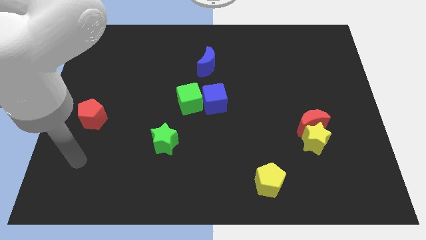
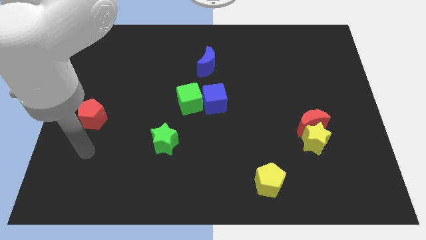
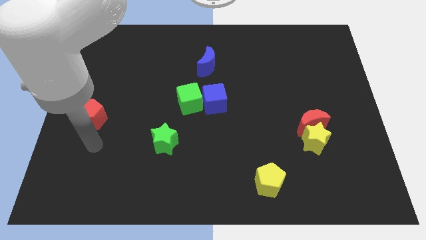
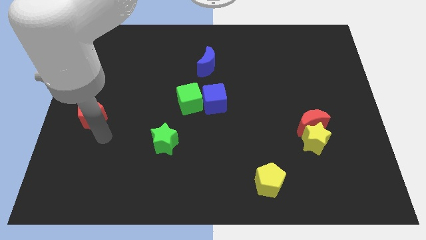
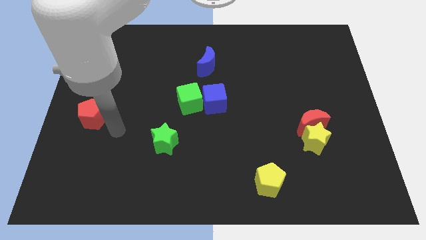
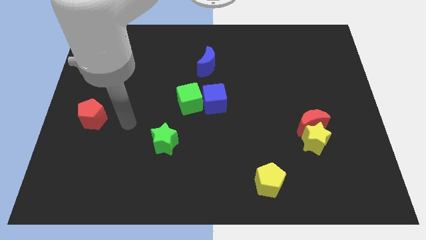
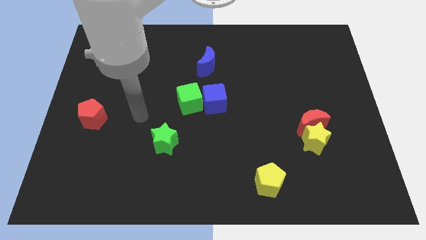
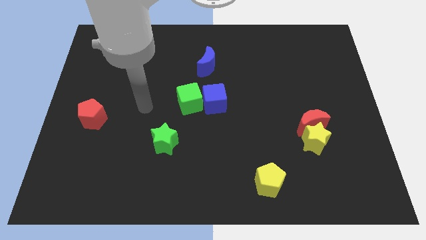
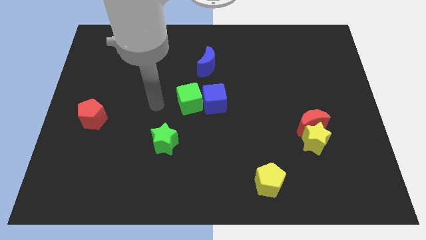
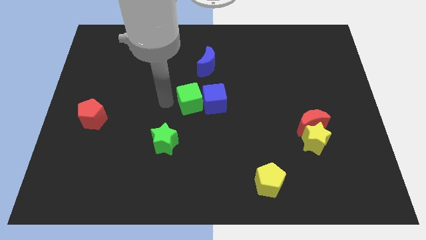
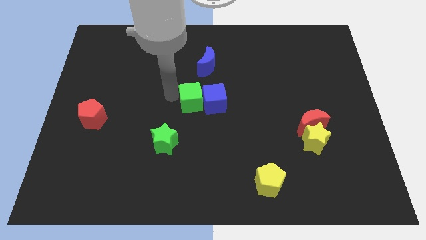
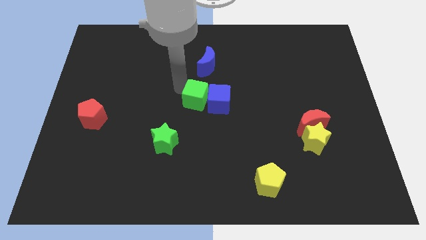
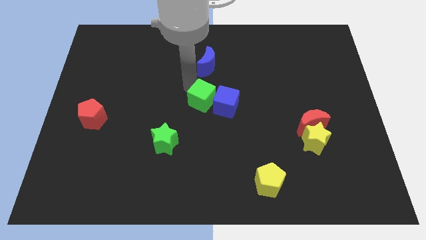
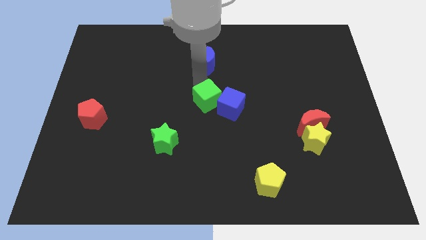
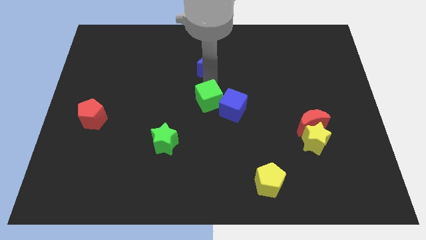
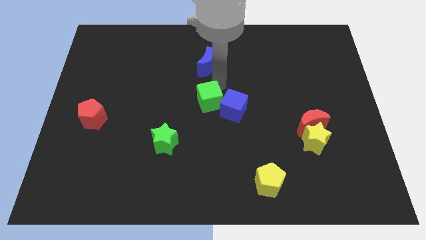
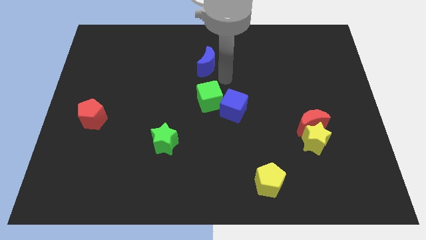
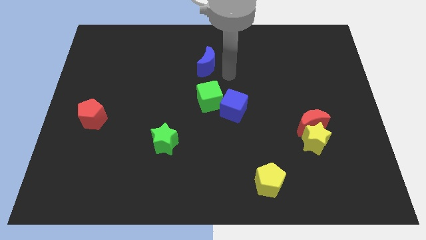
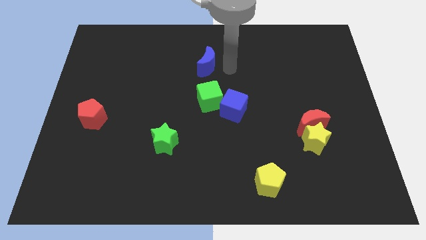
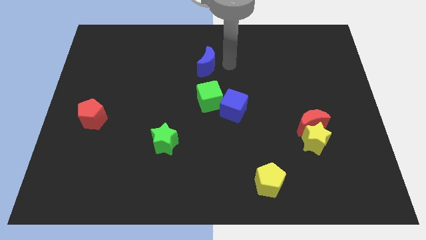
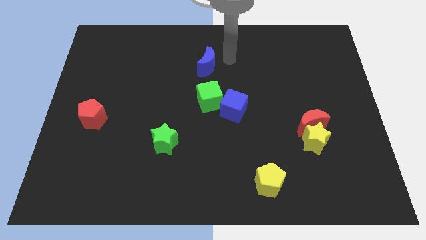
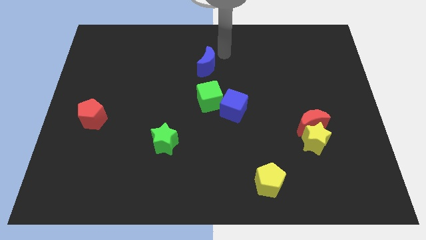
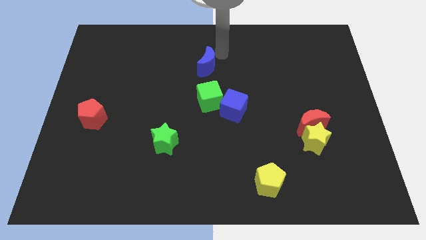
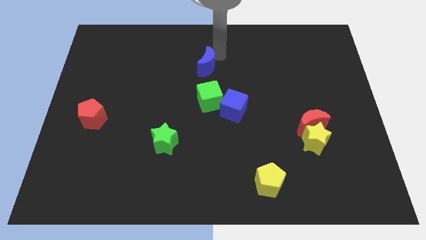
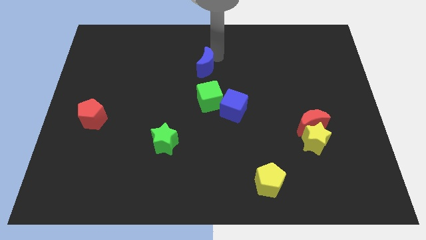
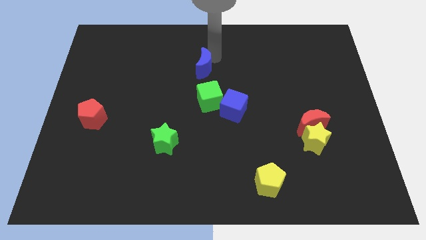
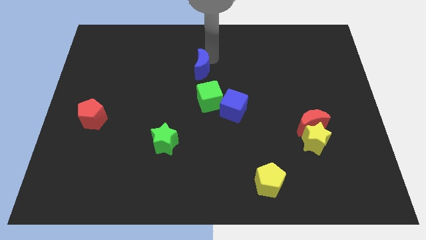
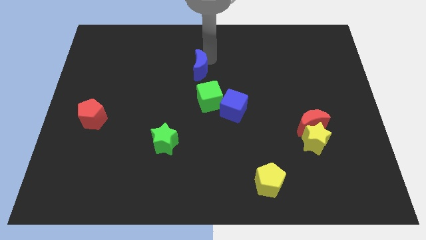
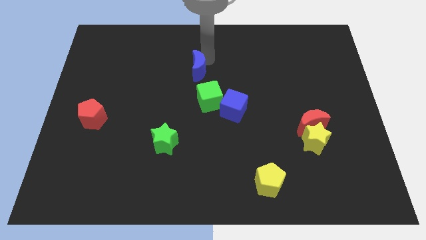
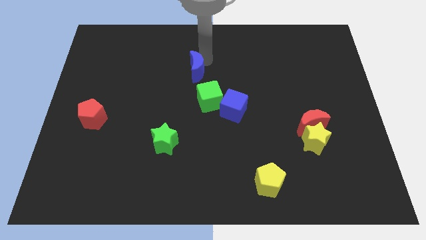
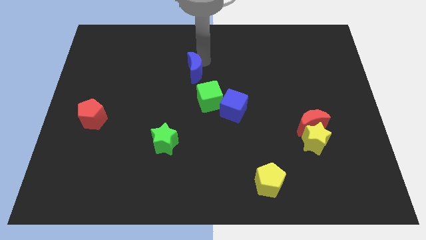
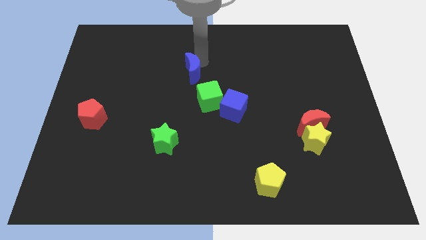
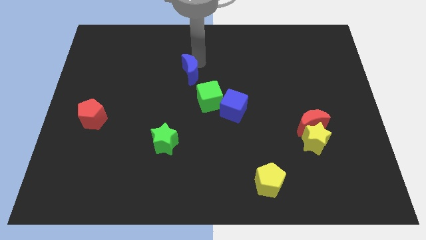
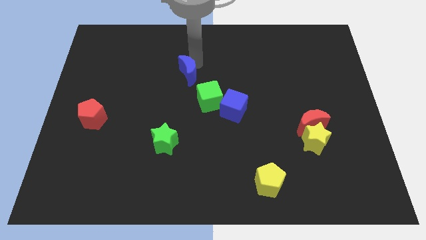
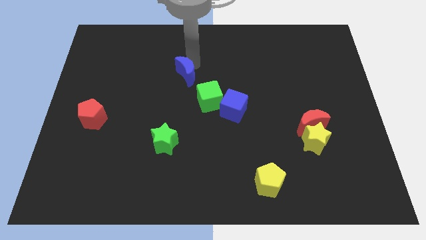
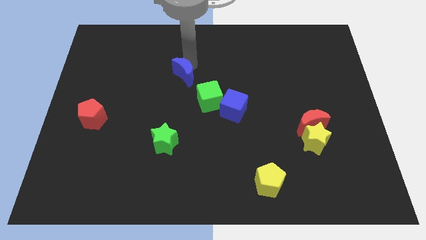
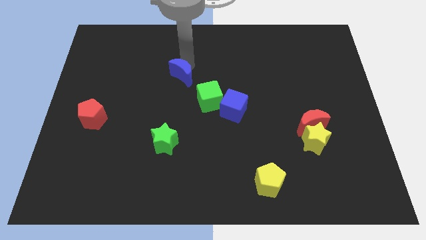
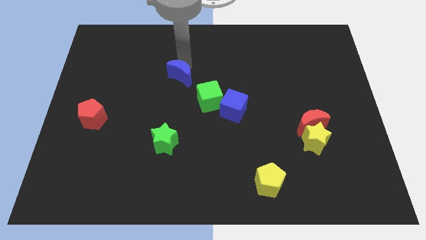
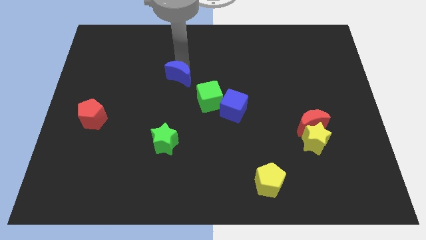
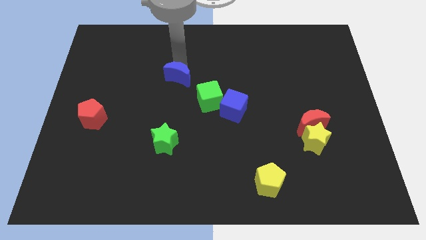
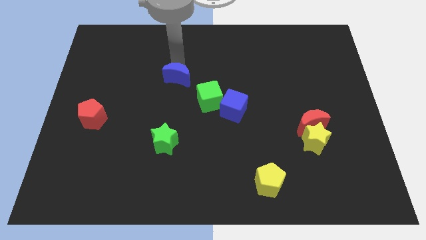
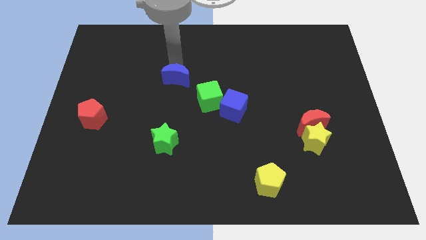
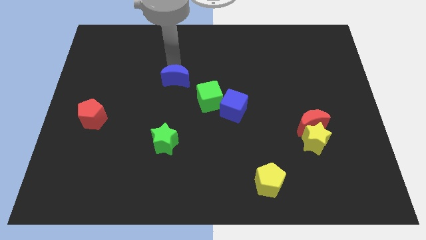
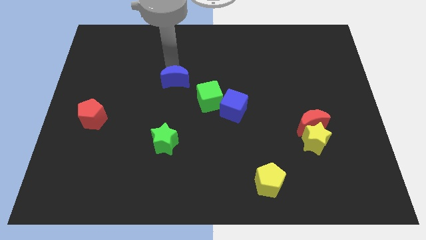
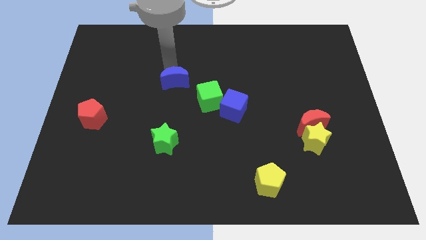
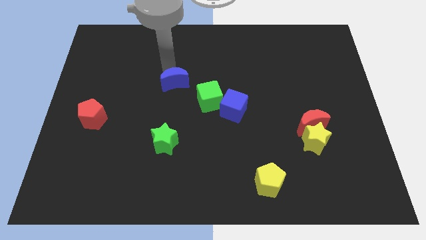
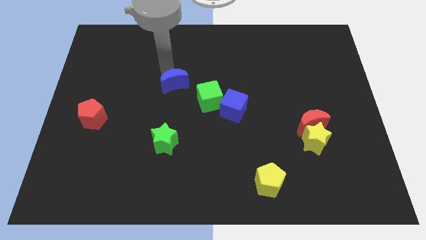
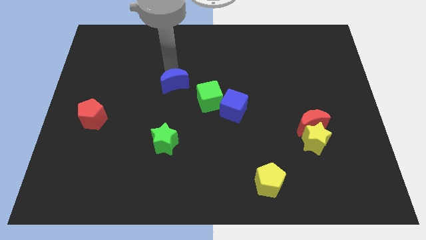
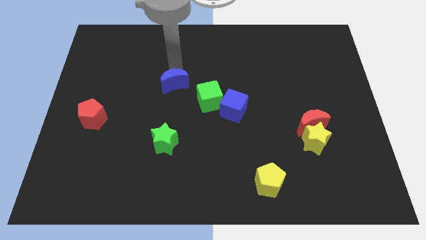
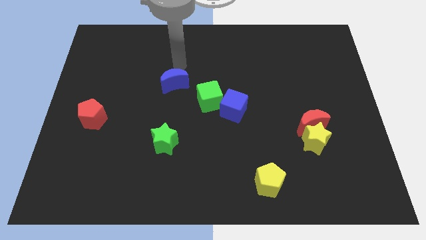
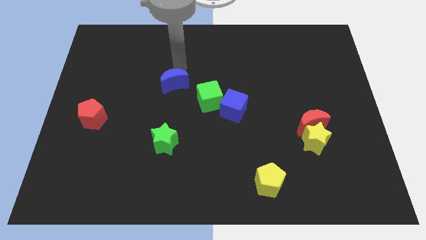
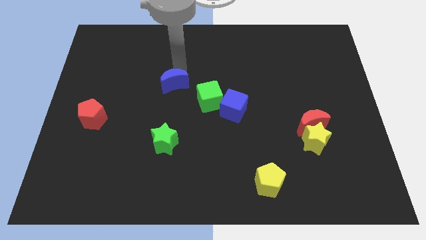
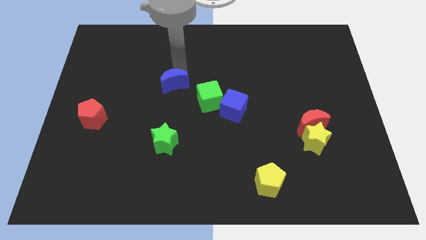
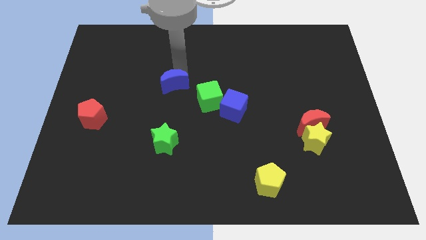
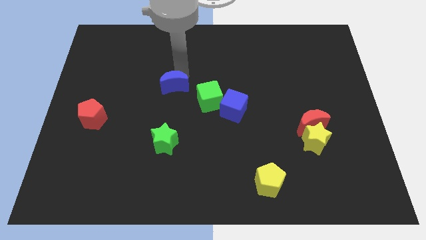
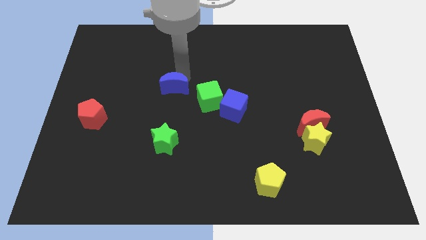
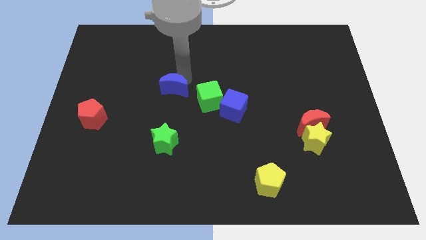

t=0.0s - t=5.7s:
move the blue moon above the green star

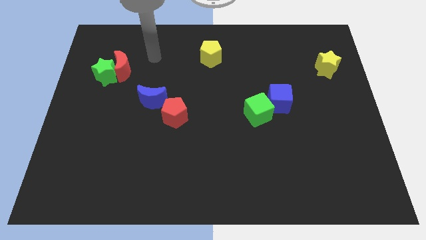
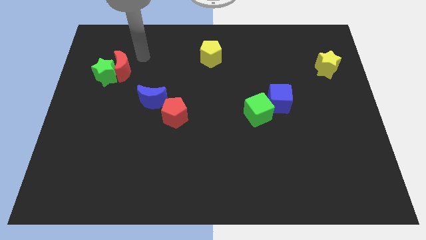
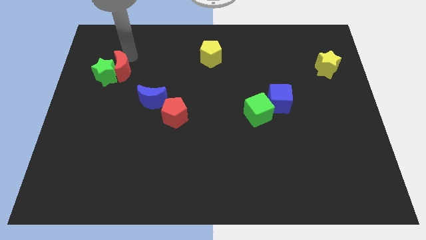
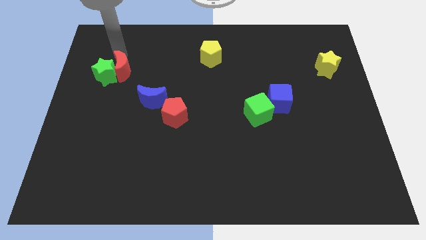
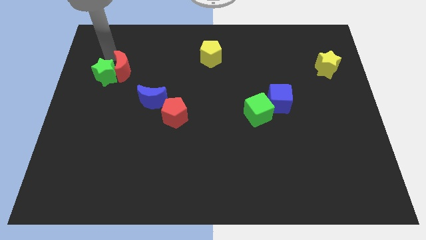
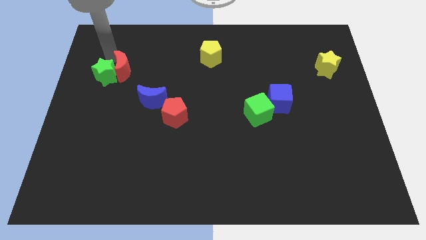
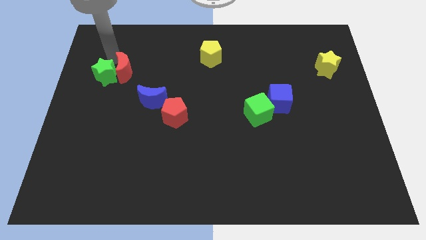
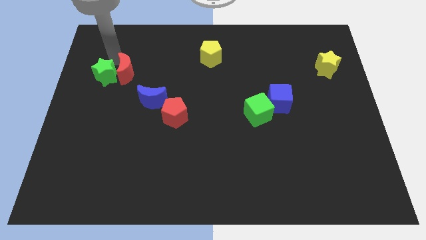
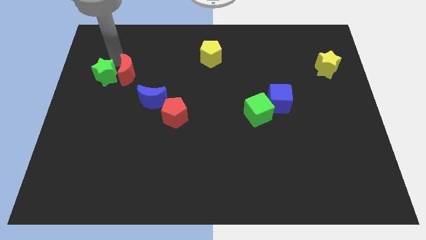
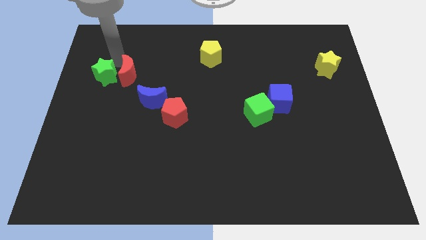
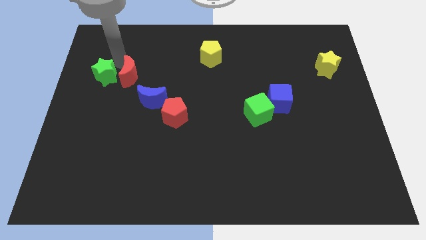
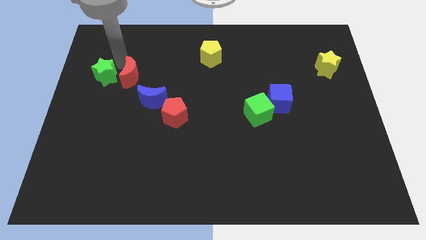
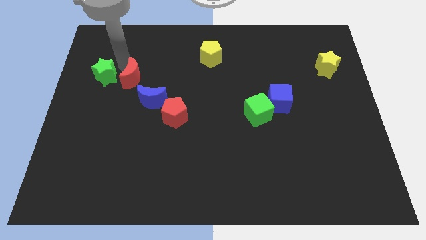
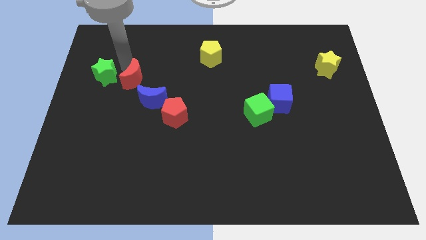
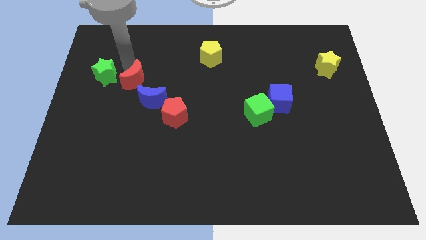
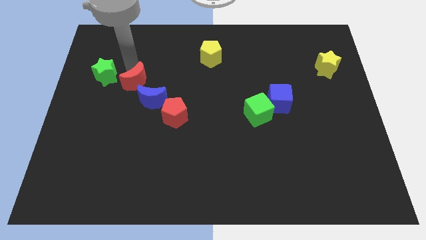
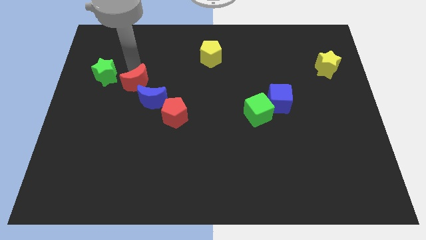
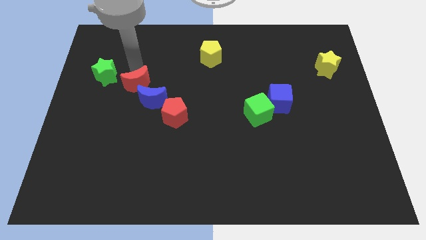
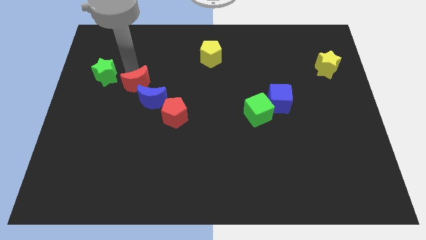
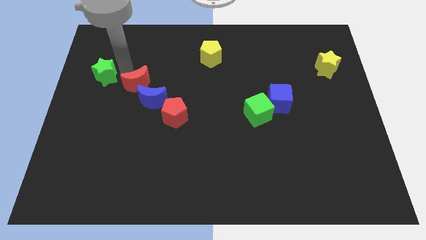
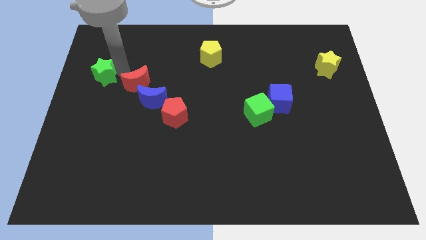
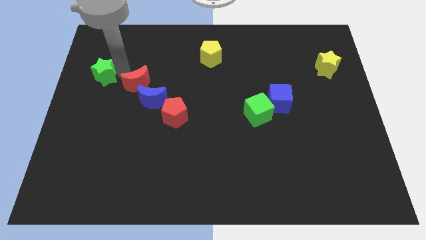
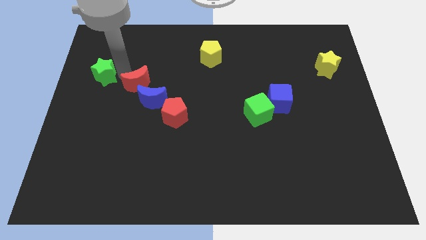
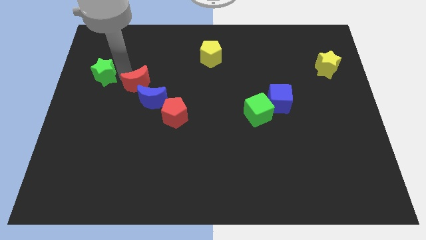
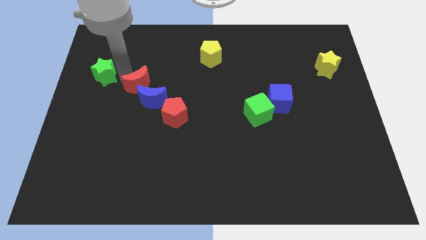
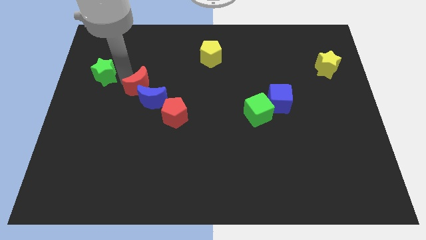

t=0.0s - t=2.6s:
push the red moon diagonally up and to the left of the red pentagon
